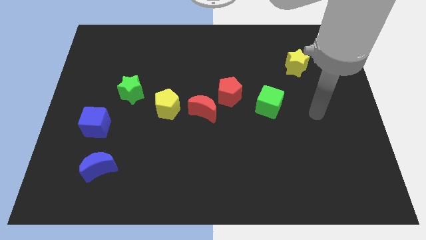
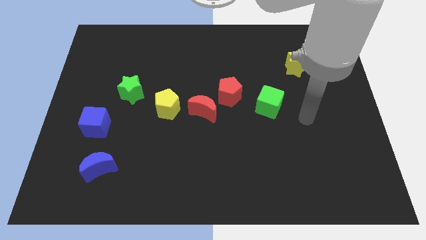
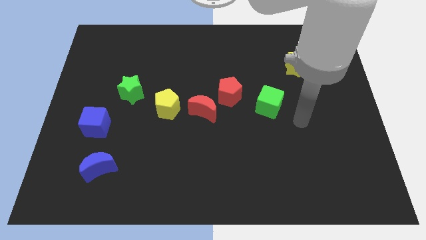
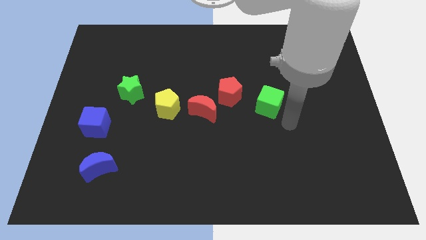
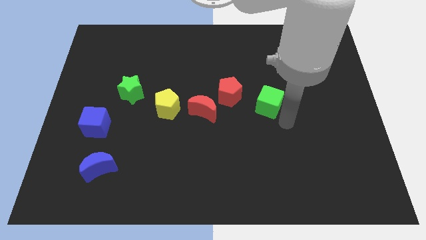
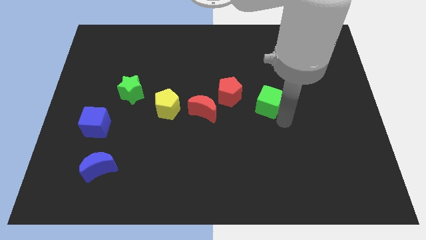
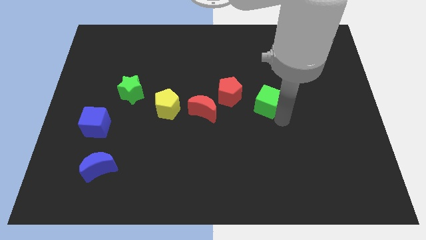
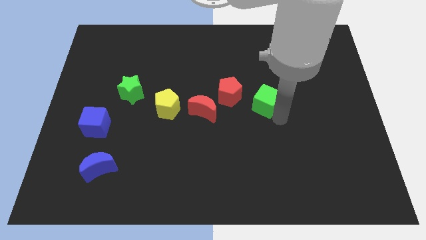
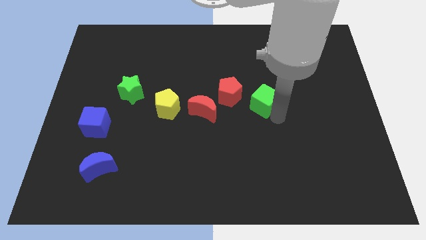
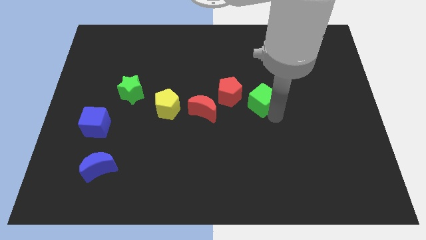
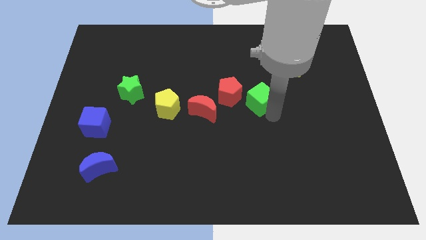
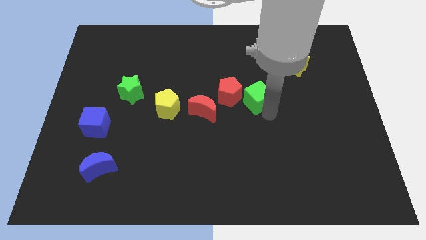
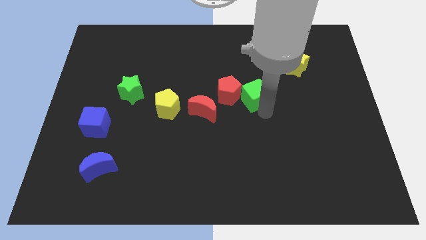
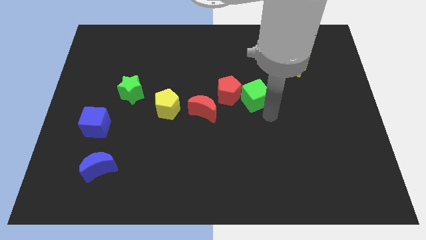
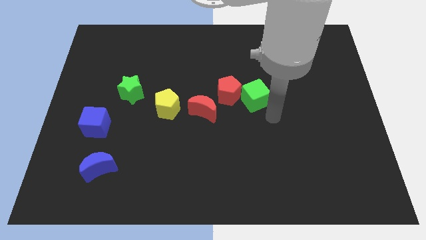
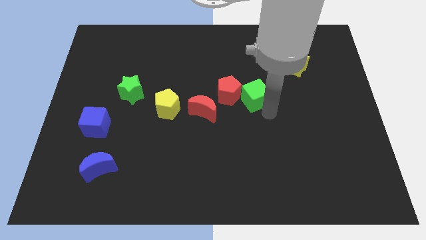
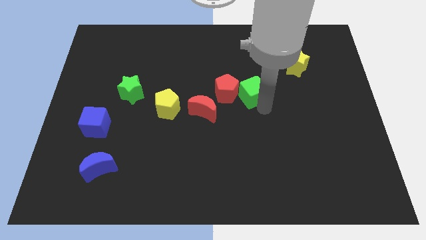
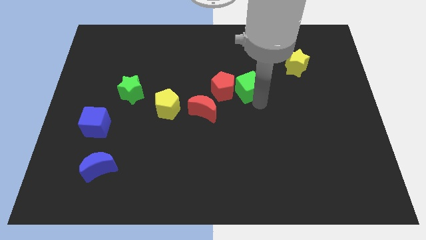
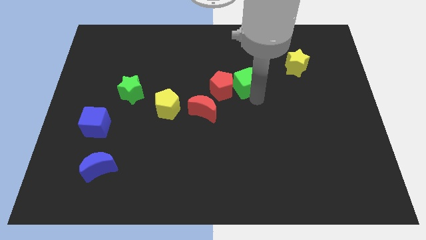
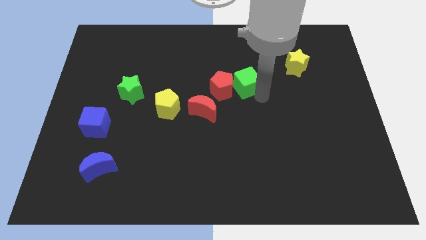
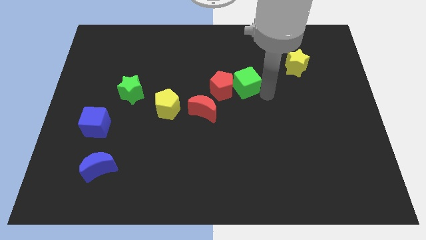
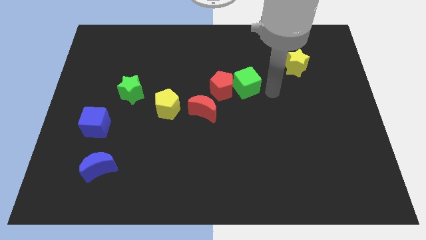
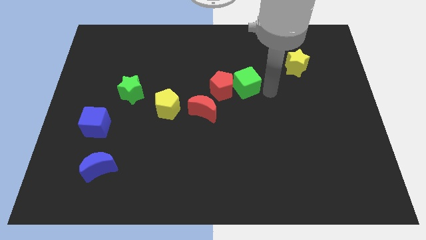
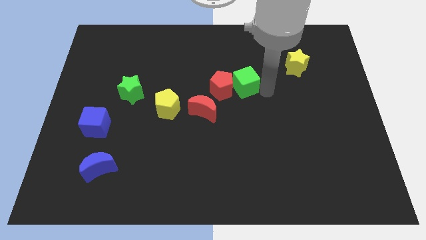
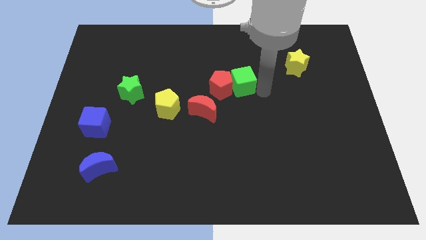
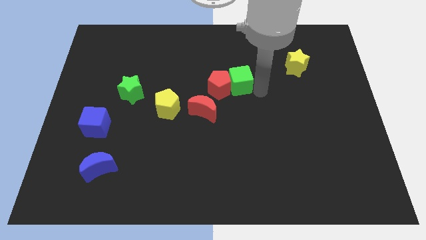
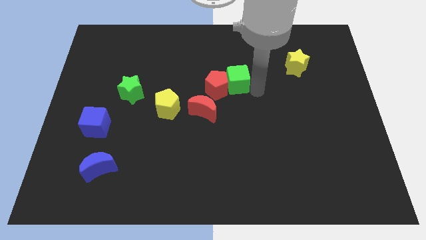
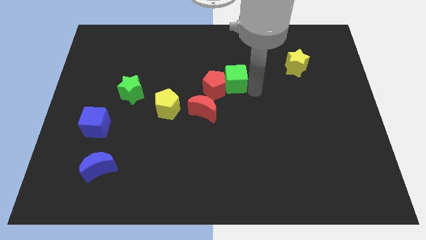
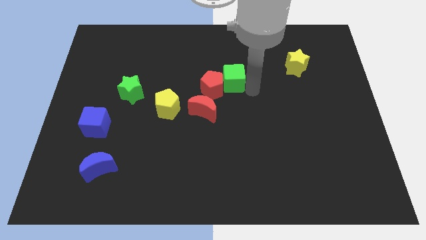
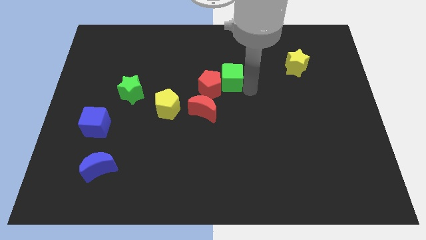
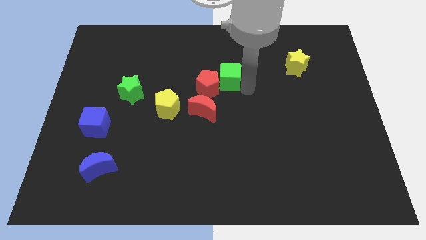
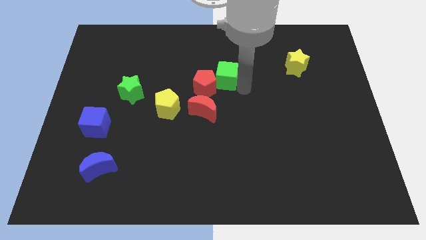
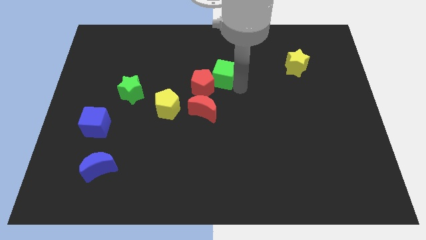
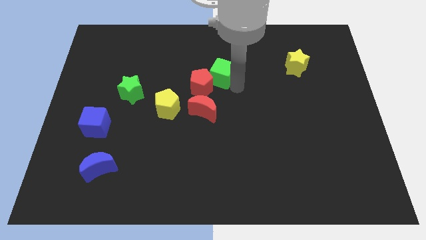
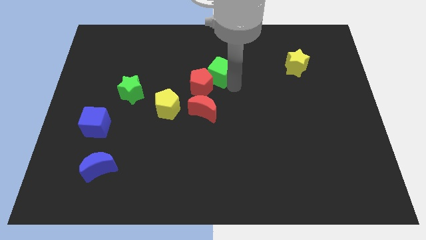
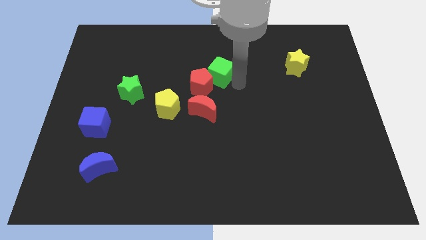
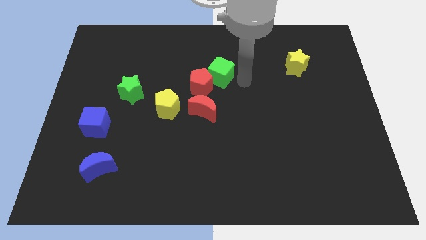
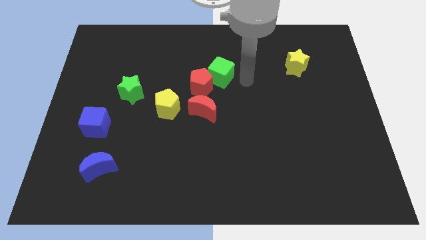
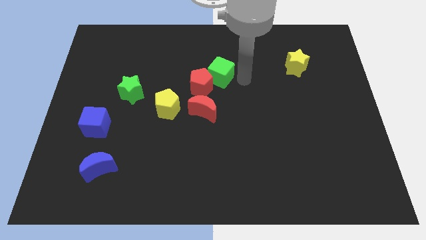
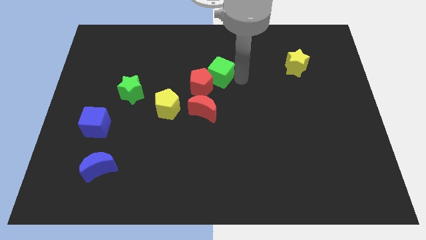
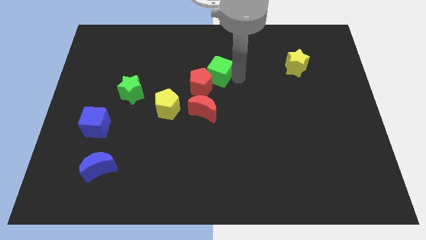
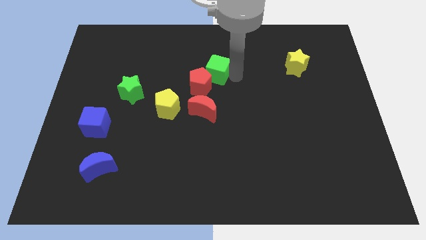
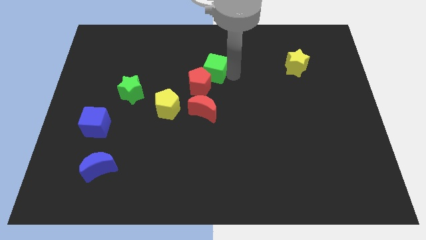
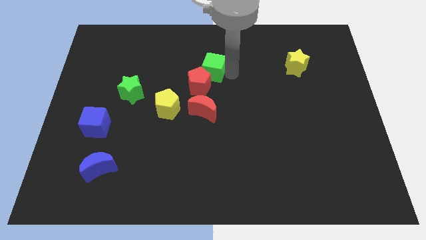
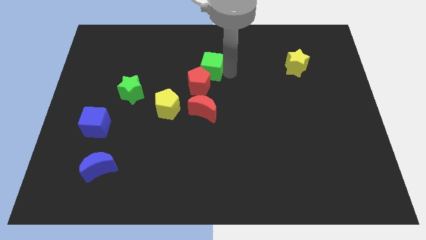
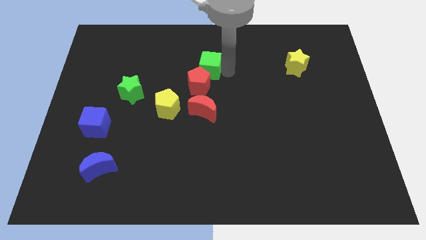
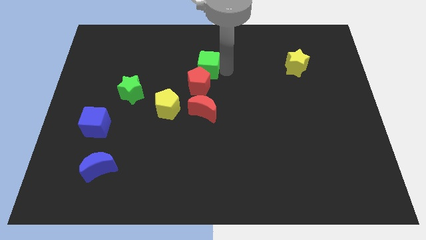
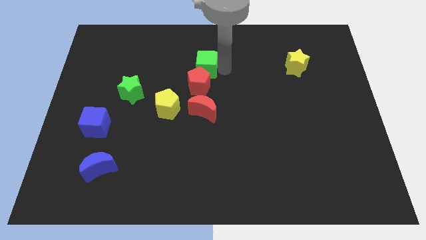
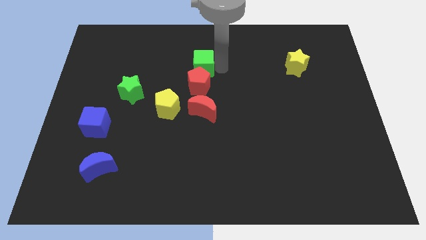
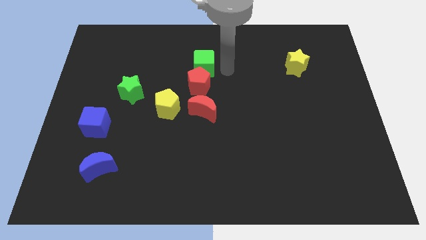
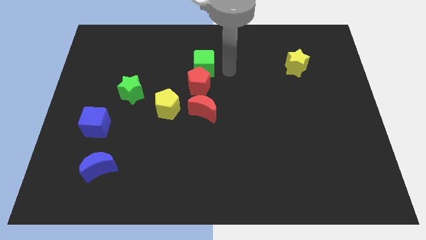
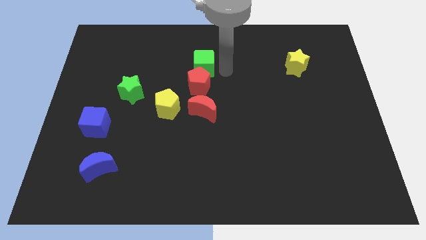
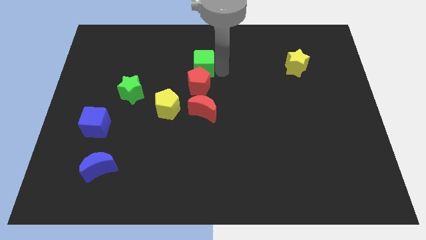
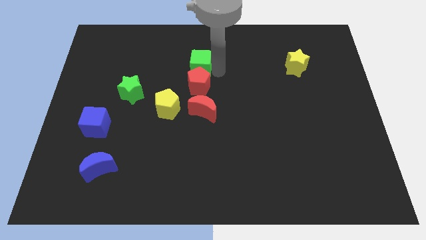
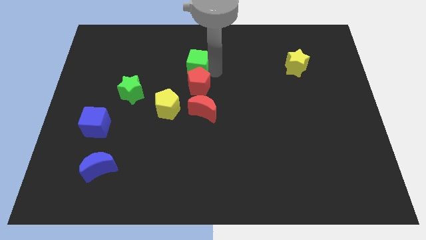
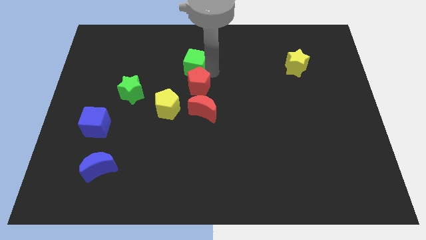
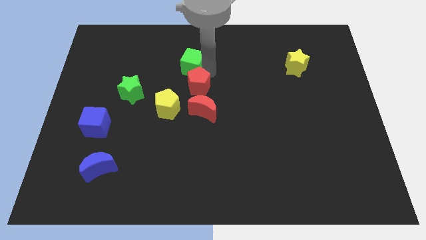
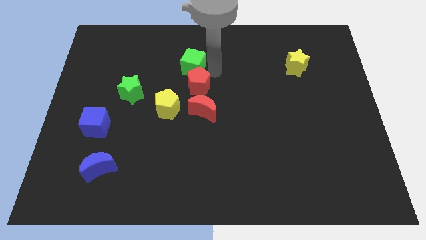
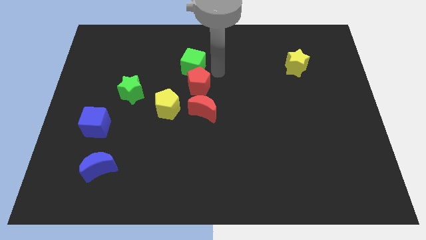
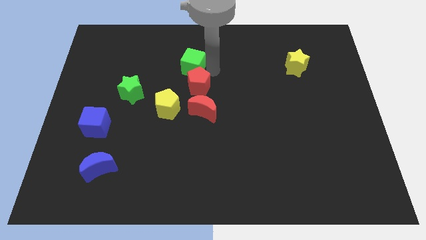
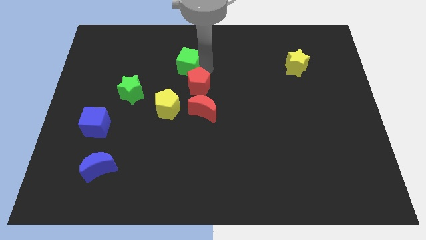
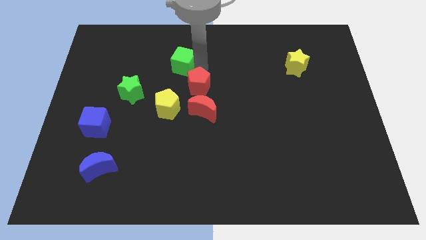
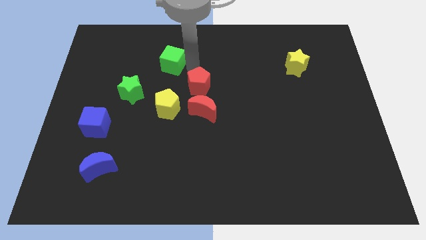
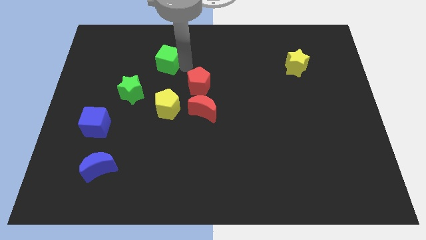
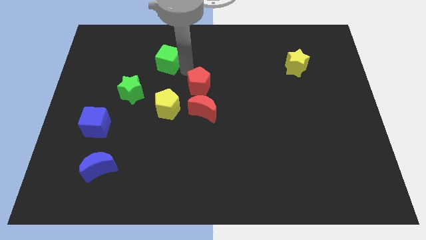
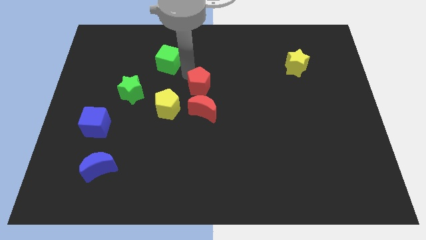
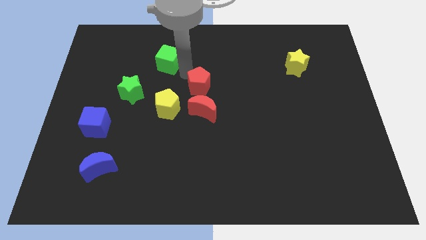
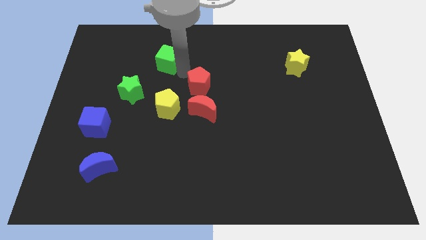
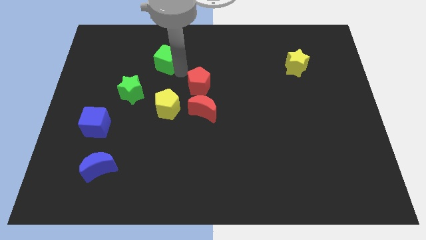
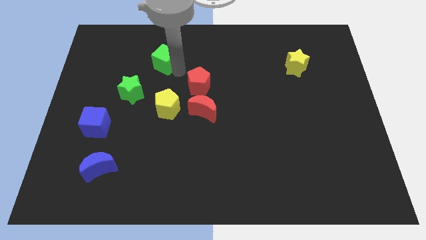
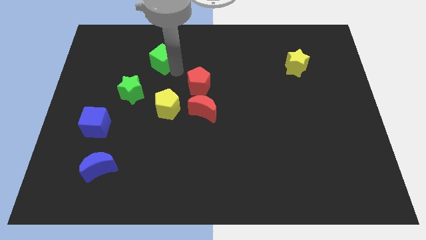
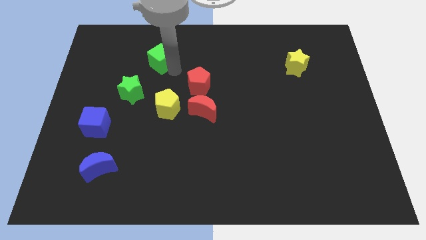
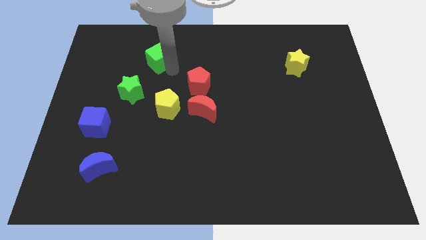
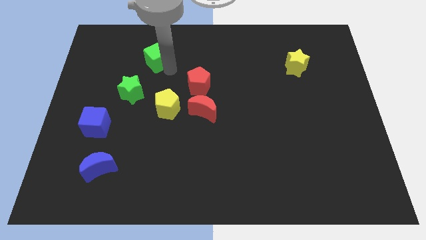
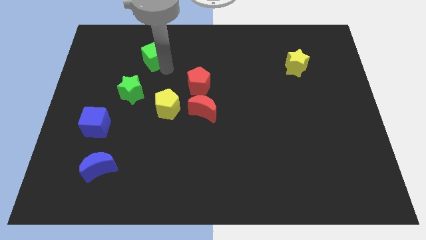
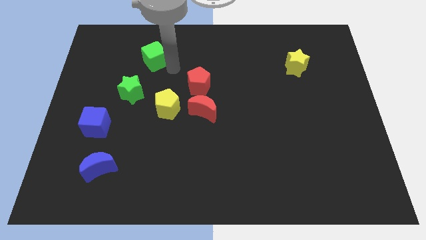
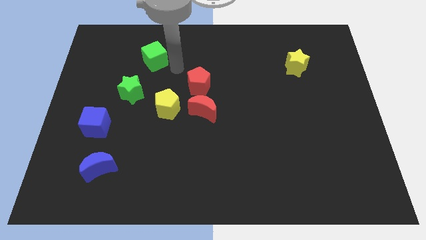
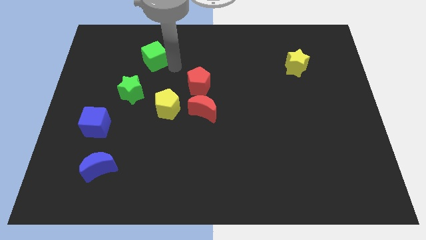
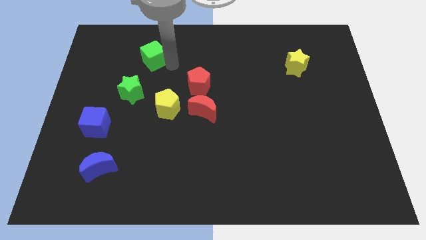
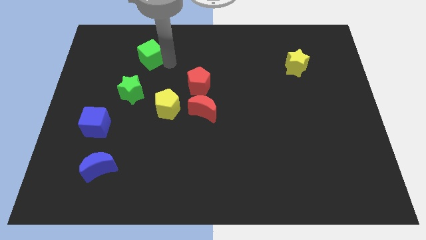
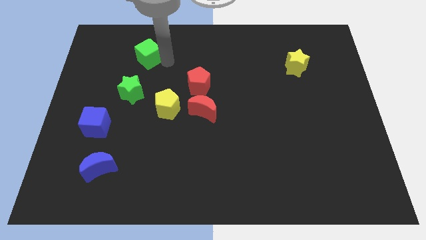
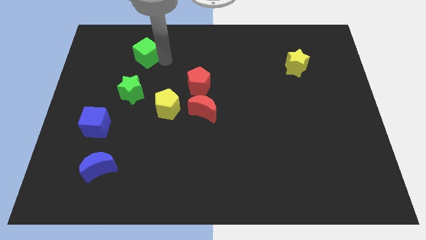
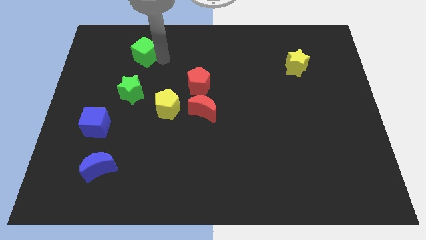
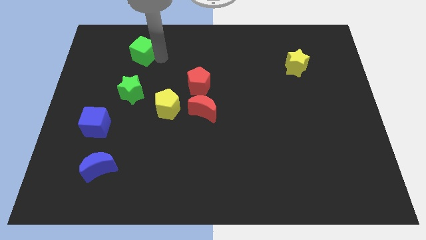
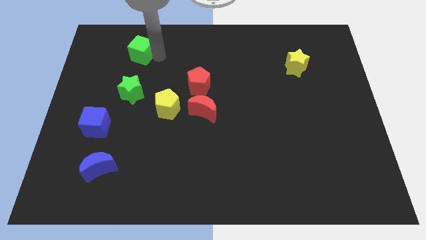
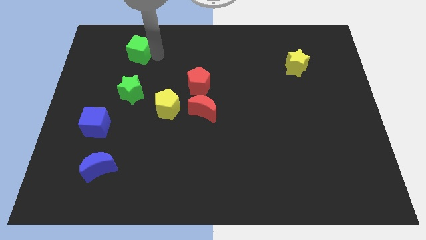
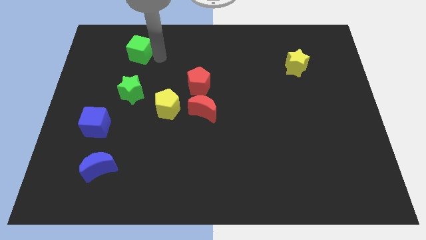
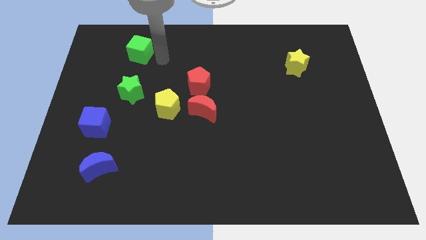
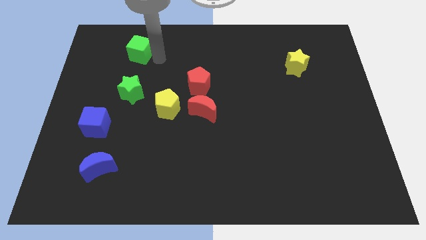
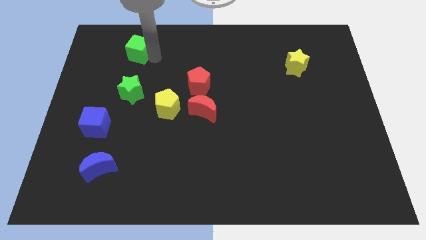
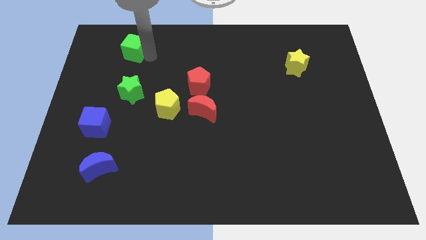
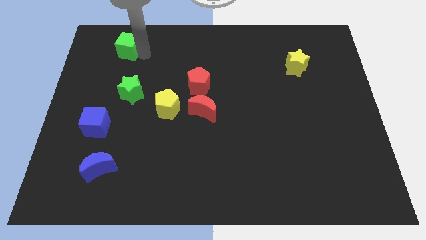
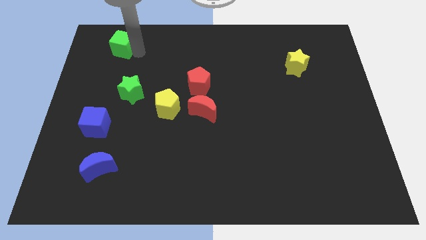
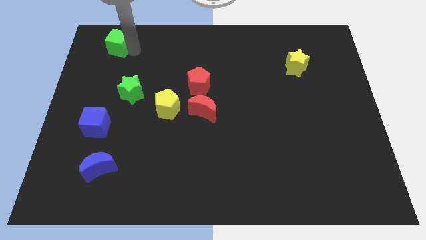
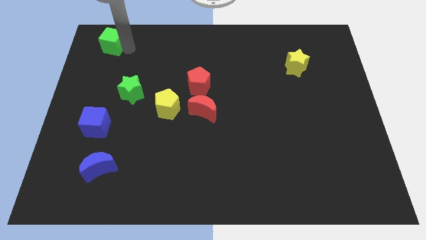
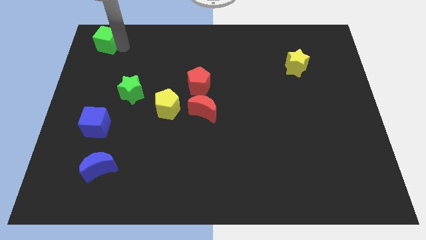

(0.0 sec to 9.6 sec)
push the green cube to the top left corner
